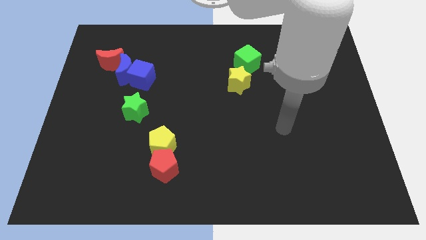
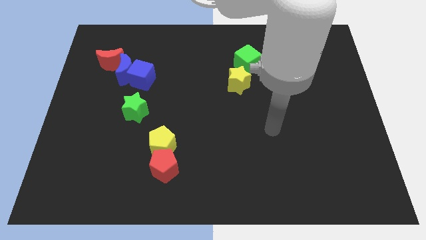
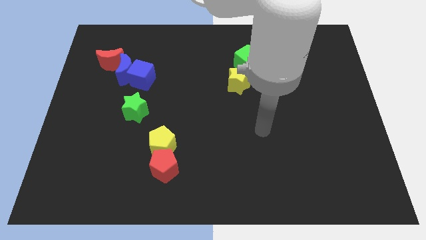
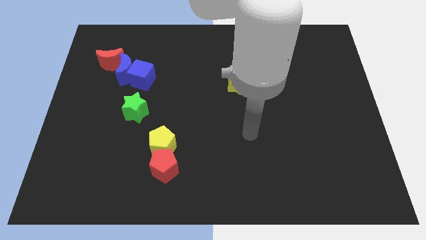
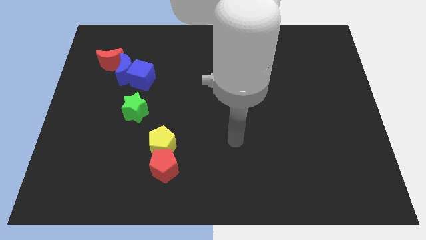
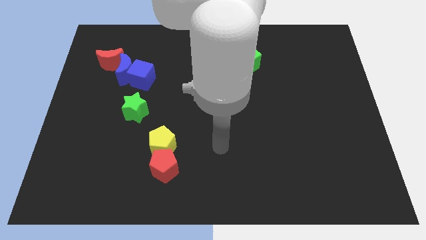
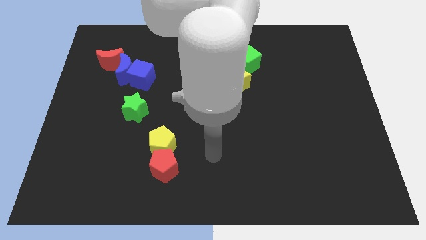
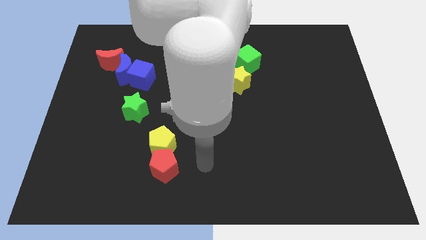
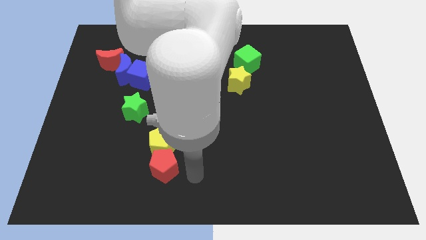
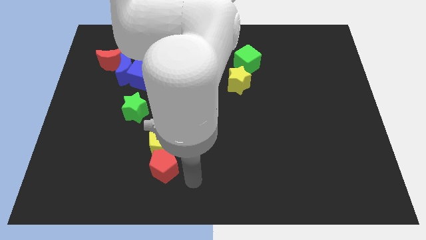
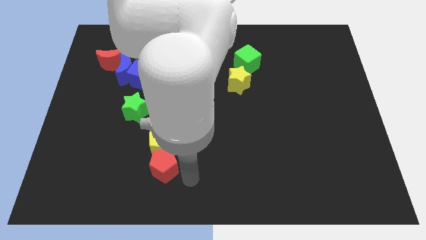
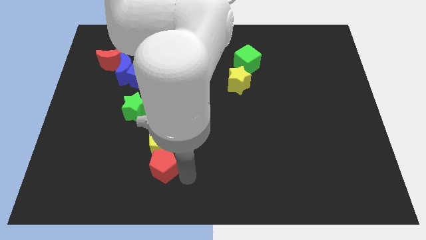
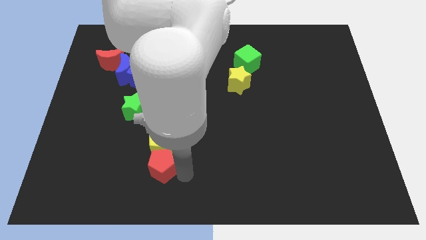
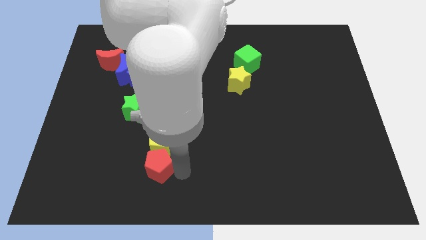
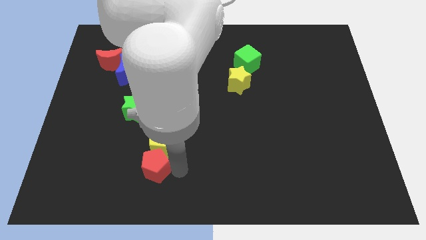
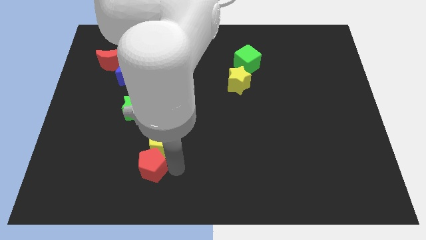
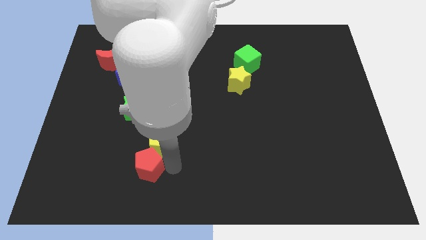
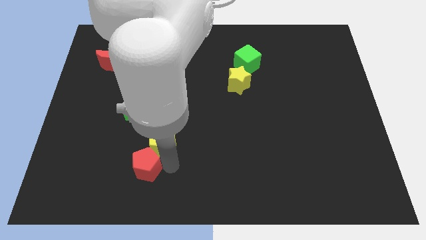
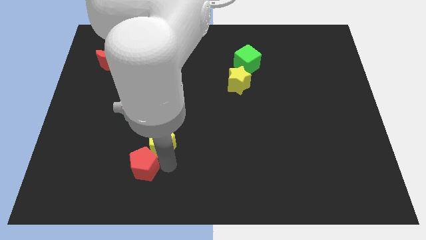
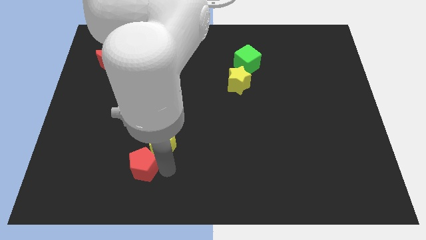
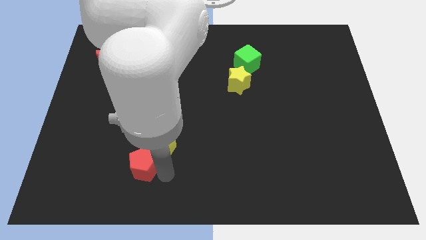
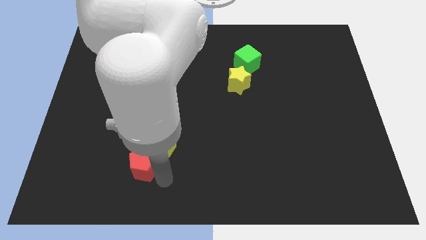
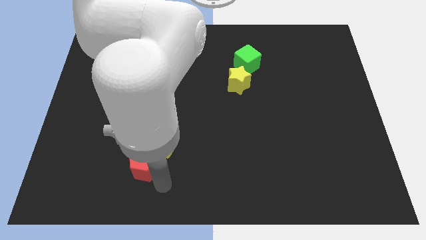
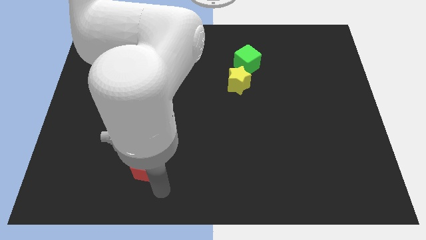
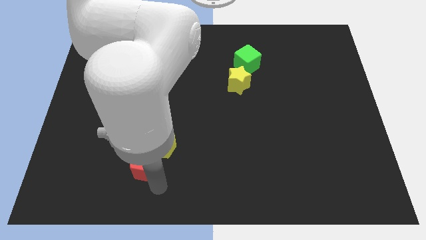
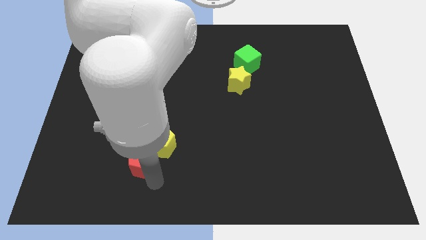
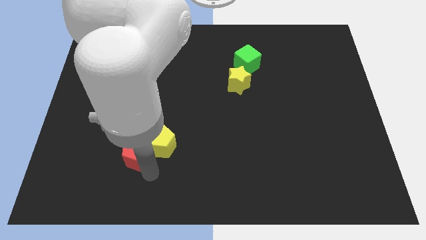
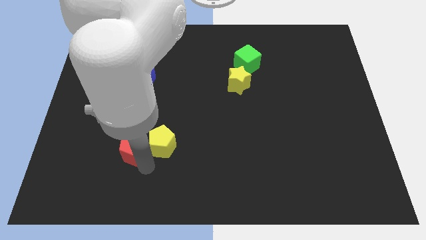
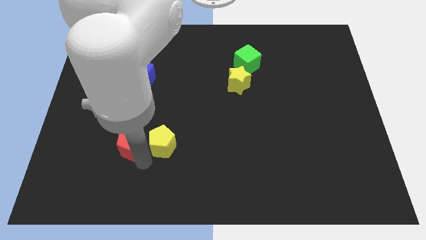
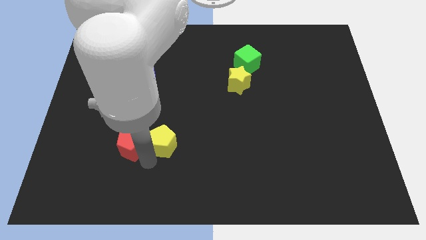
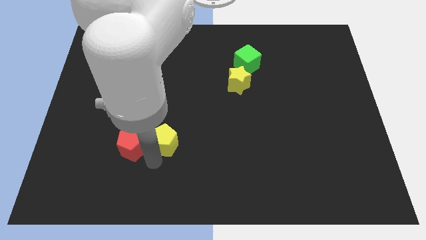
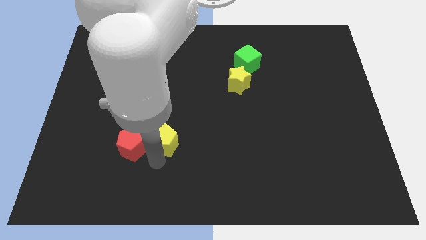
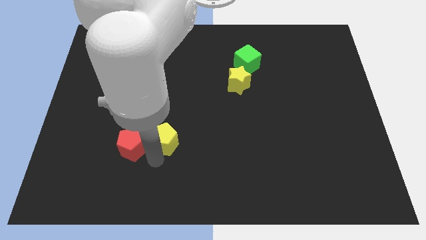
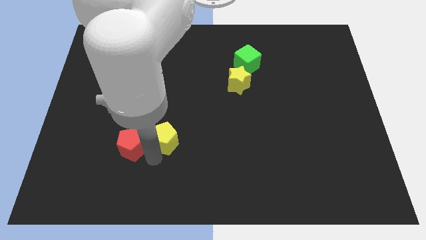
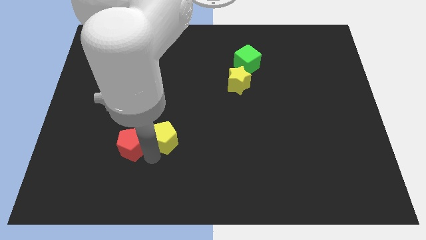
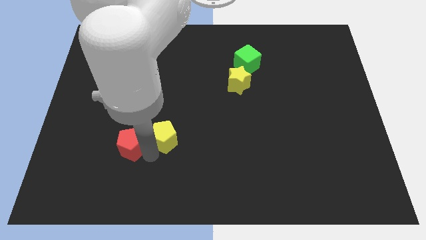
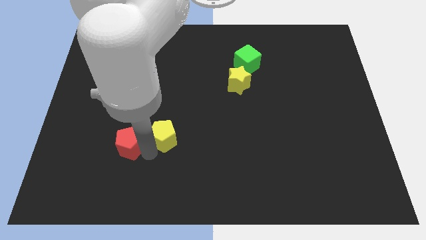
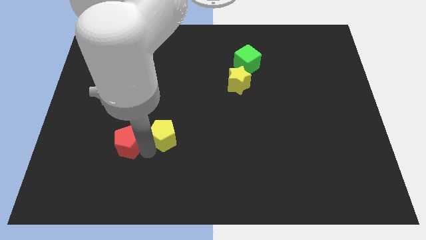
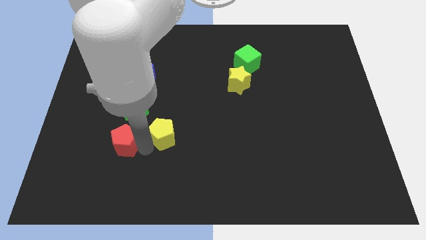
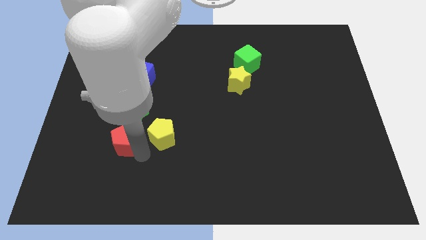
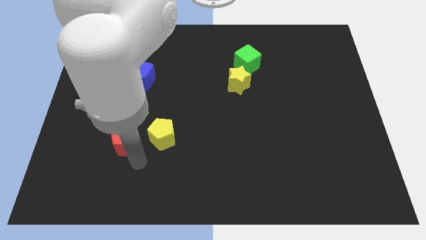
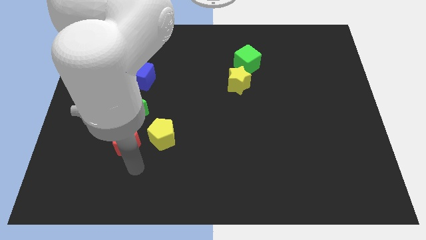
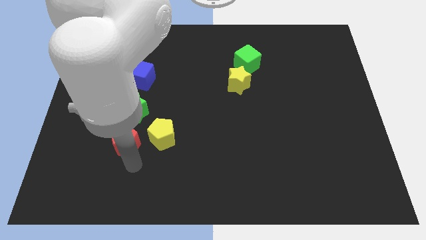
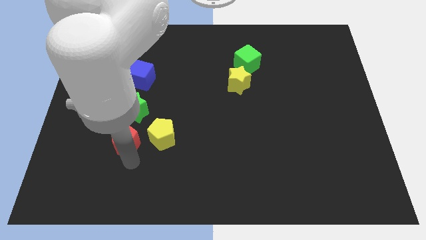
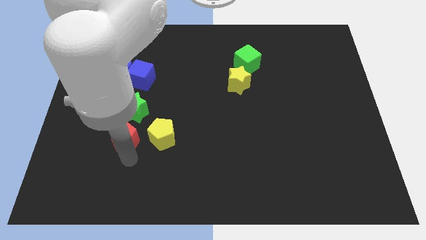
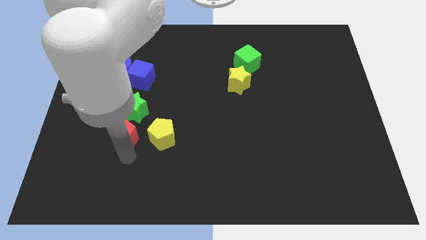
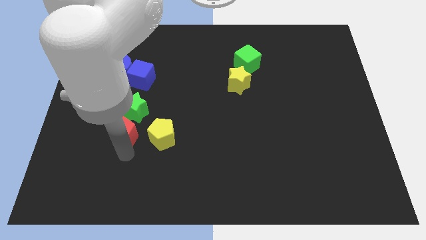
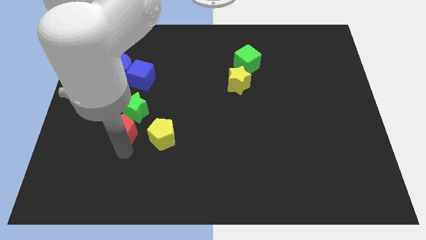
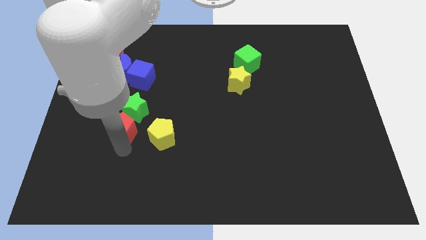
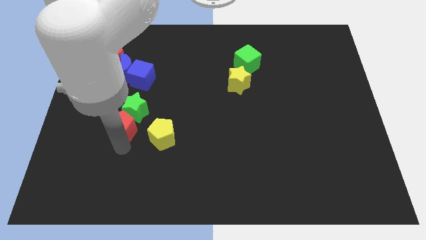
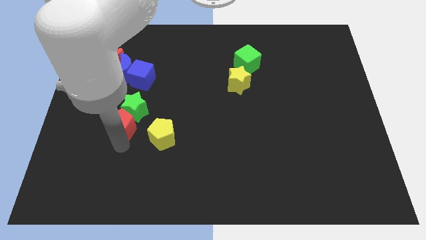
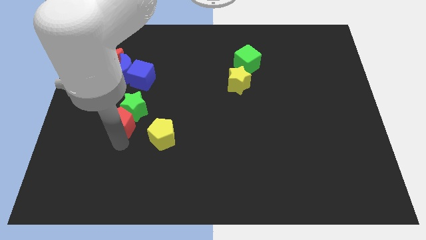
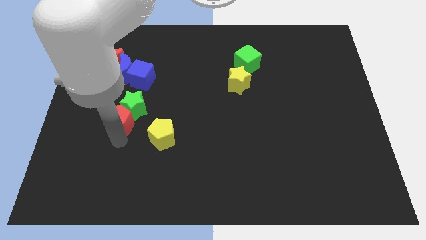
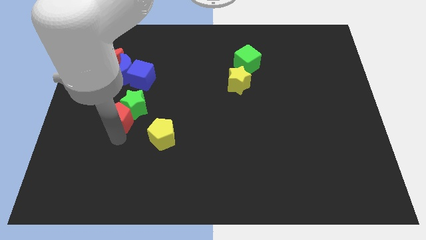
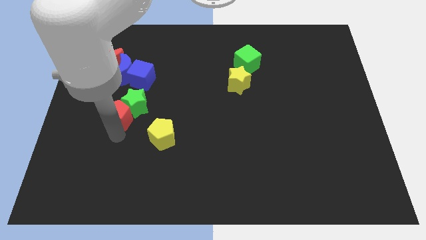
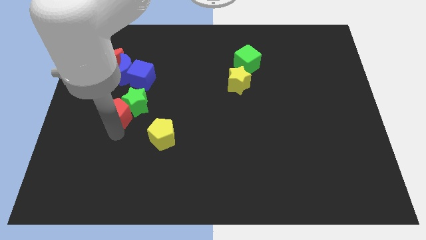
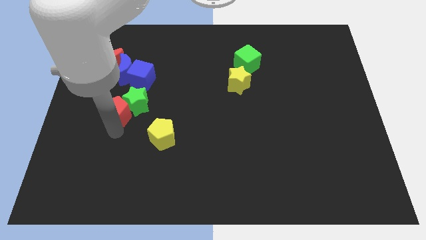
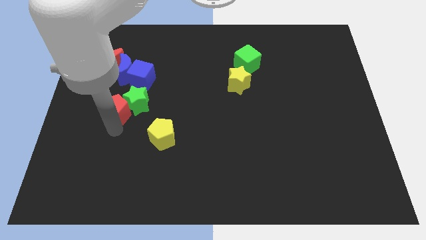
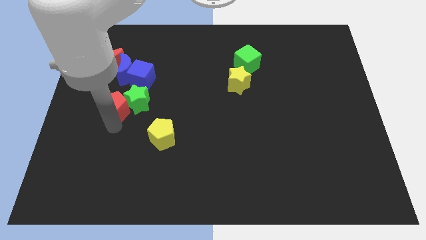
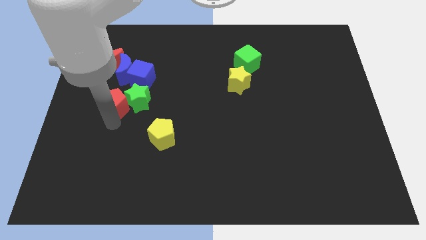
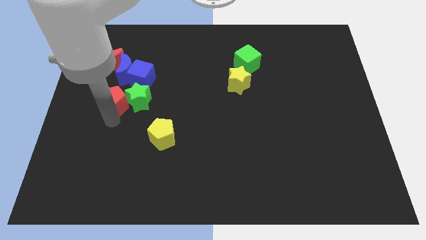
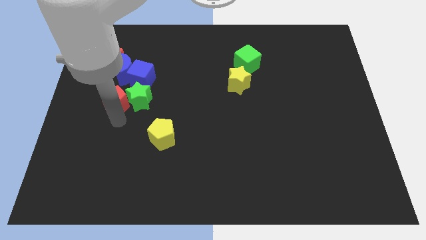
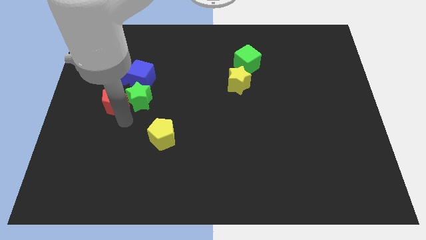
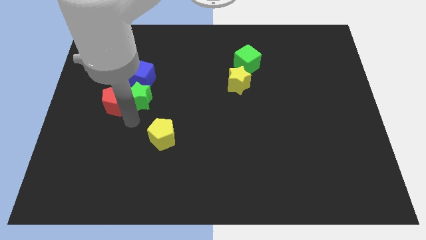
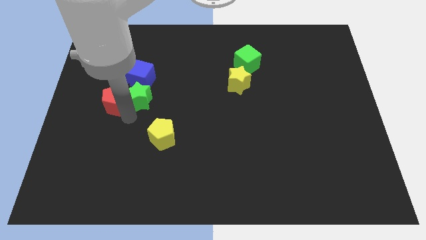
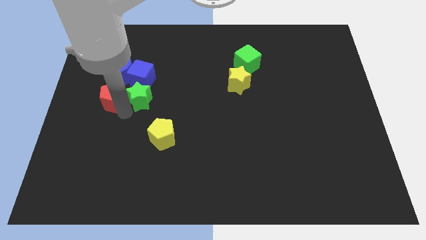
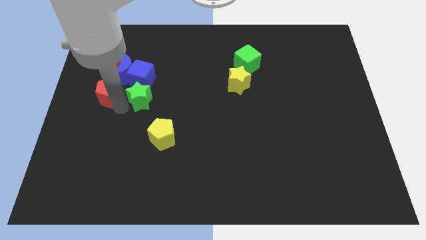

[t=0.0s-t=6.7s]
put the red pentagon diagonally down and to the left of the blue moon
